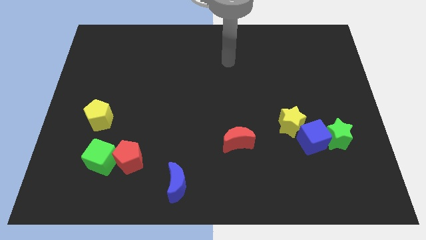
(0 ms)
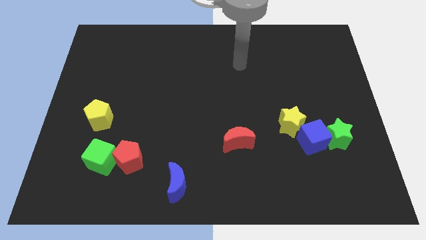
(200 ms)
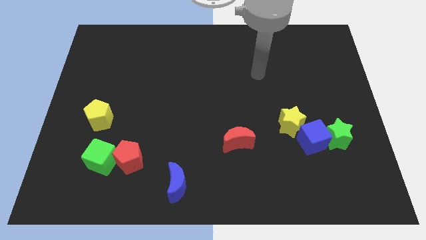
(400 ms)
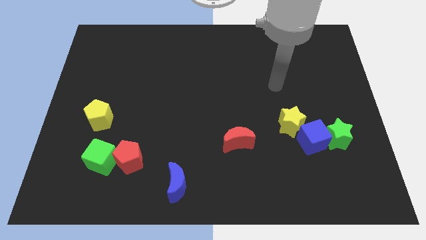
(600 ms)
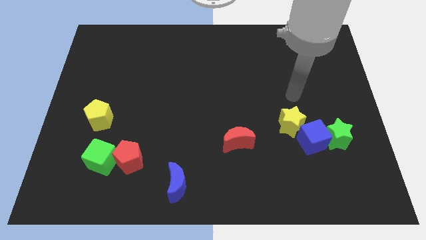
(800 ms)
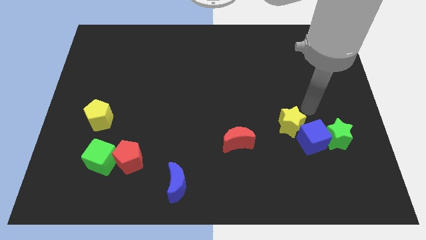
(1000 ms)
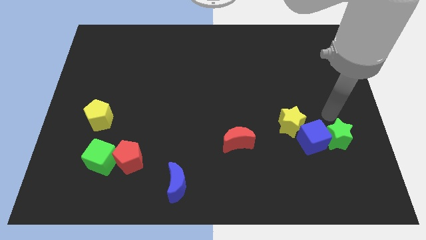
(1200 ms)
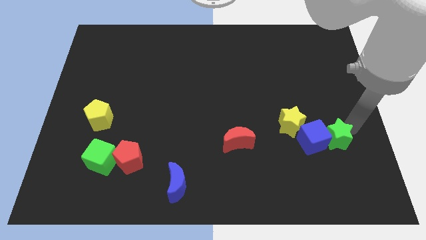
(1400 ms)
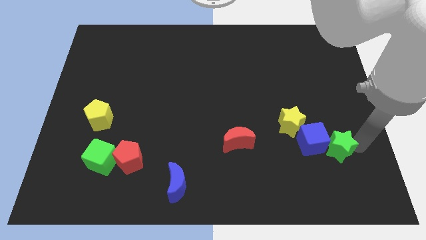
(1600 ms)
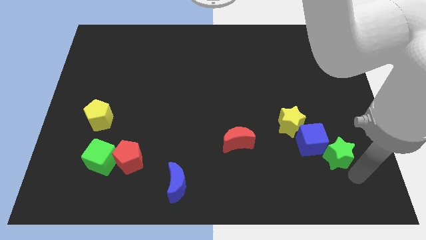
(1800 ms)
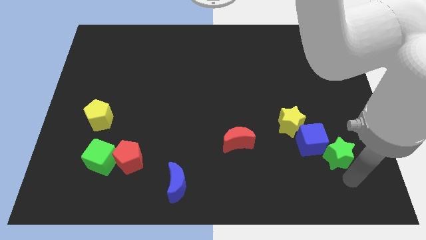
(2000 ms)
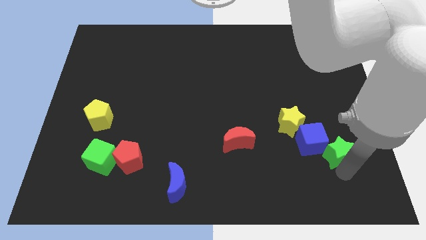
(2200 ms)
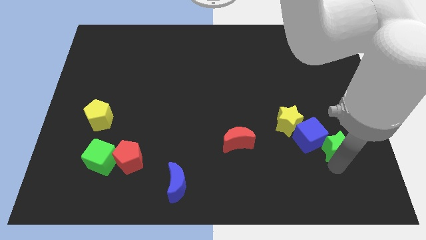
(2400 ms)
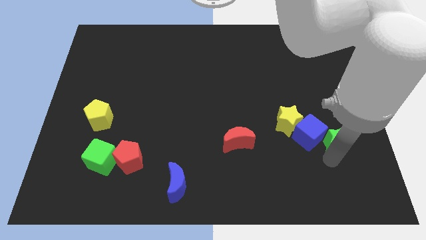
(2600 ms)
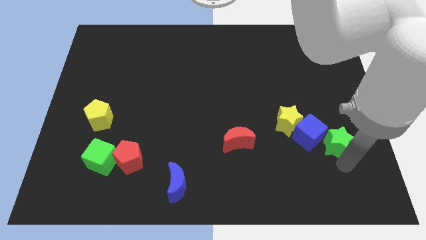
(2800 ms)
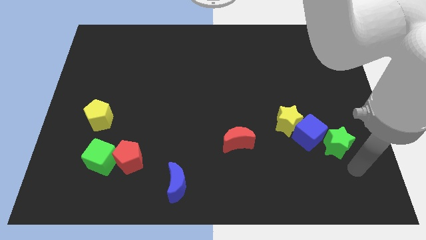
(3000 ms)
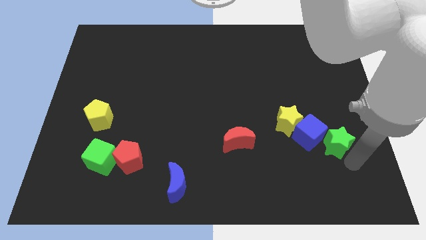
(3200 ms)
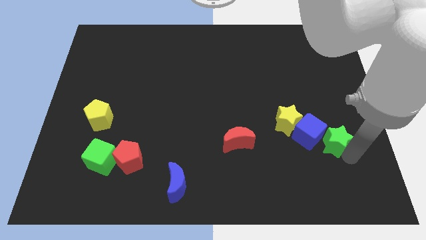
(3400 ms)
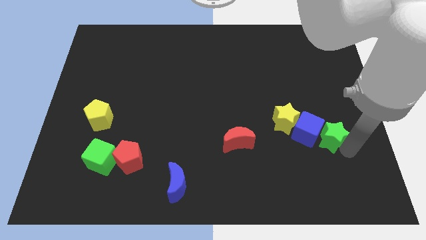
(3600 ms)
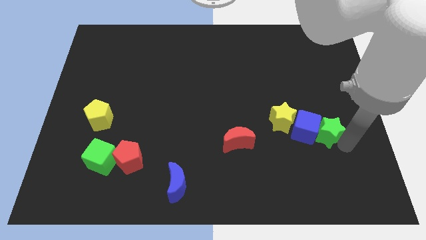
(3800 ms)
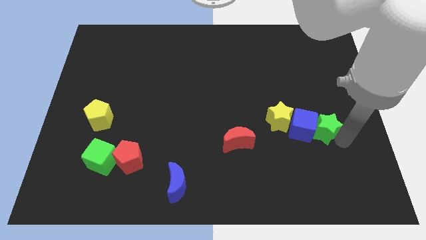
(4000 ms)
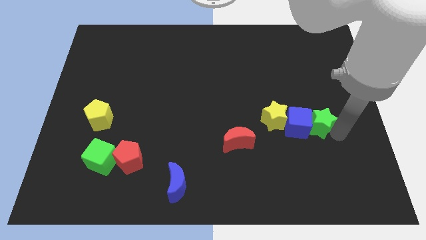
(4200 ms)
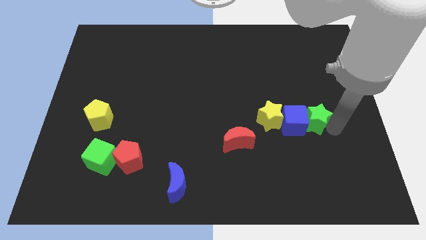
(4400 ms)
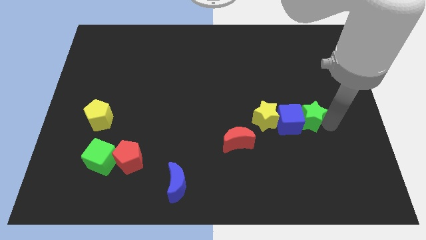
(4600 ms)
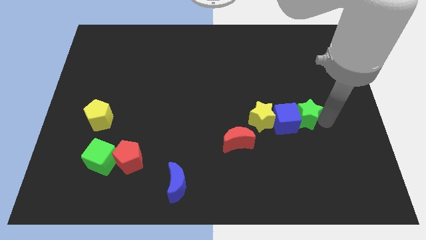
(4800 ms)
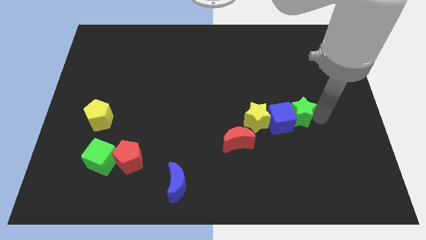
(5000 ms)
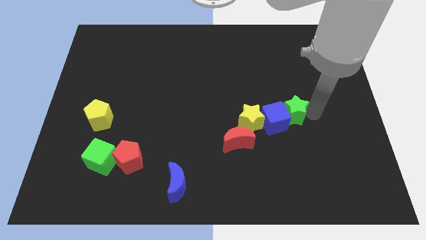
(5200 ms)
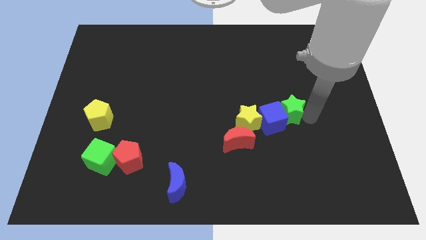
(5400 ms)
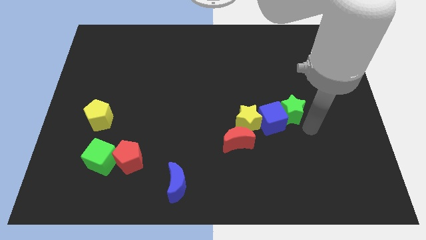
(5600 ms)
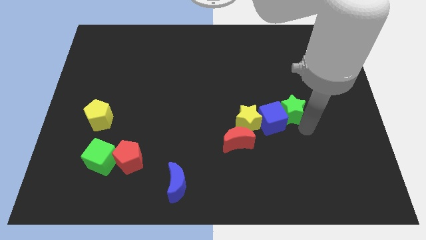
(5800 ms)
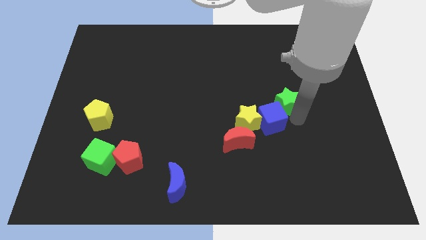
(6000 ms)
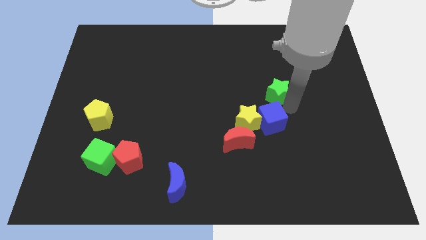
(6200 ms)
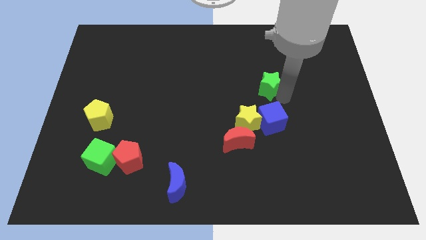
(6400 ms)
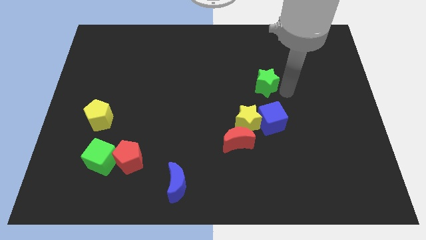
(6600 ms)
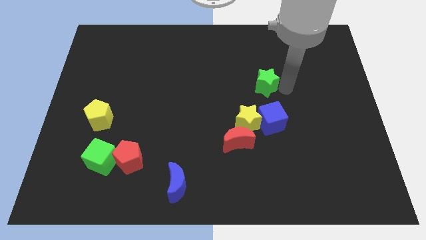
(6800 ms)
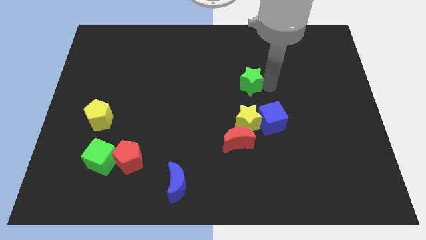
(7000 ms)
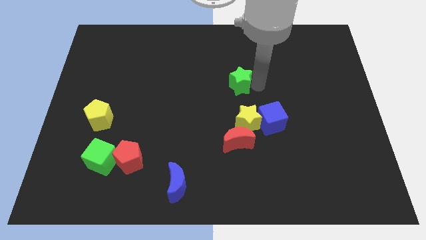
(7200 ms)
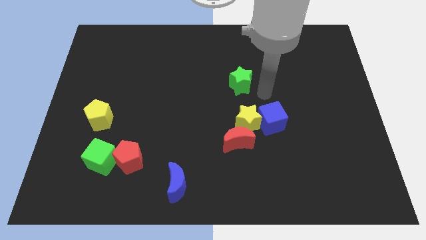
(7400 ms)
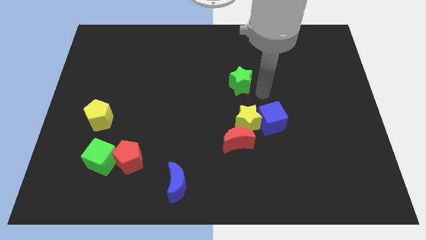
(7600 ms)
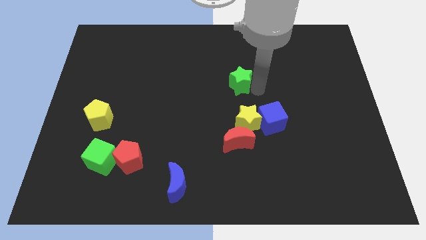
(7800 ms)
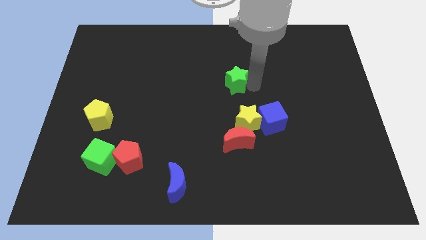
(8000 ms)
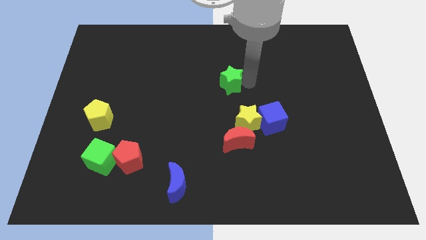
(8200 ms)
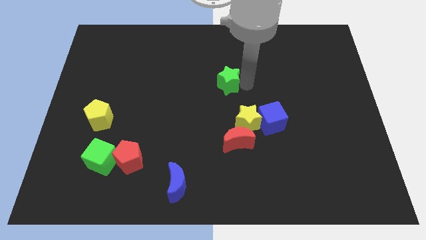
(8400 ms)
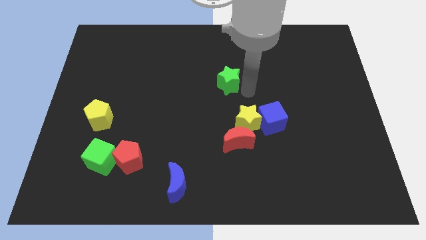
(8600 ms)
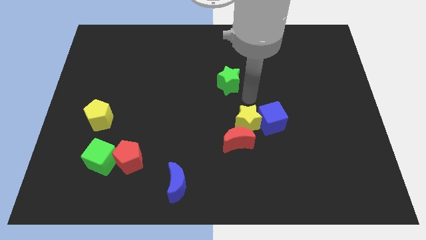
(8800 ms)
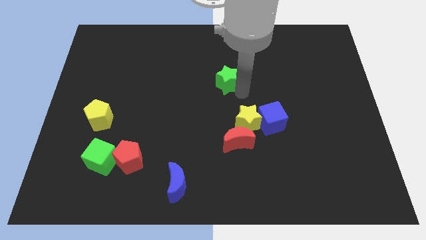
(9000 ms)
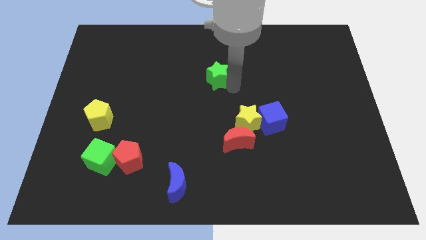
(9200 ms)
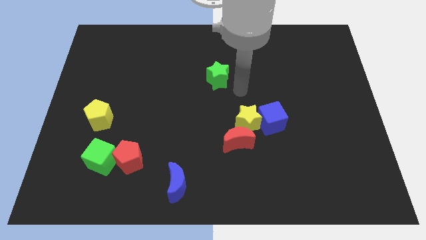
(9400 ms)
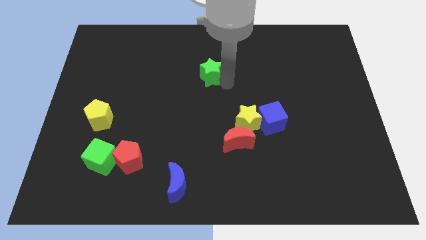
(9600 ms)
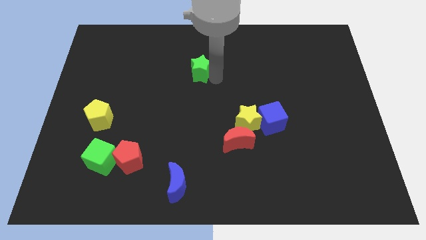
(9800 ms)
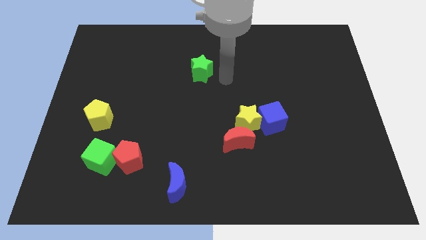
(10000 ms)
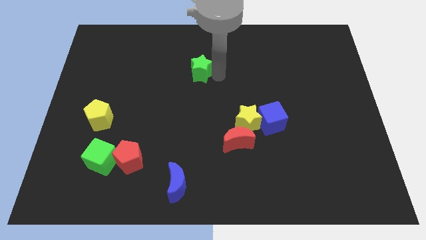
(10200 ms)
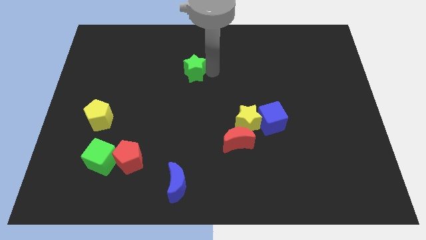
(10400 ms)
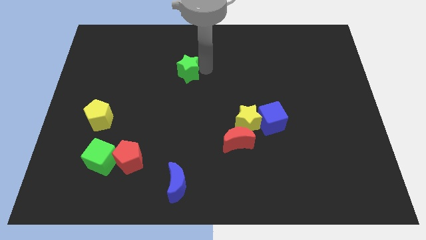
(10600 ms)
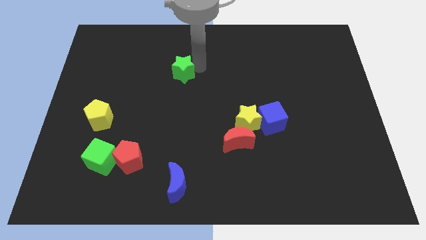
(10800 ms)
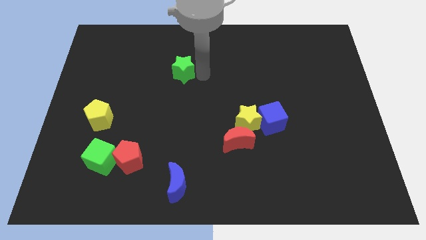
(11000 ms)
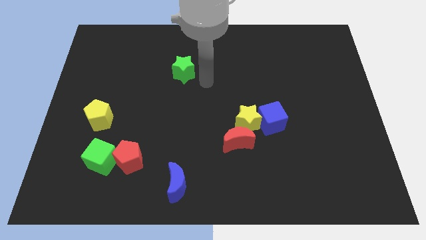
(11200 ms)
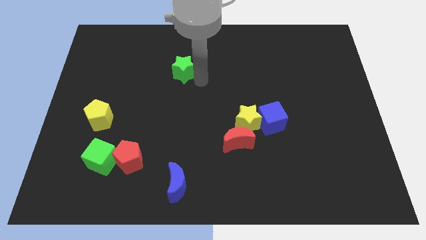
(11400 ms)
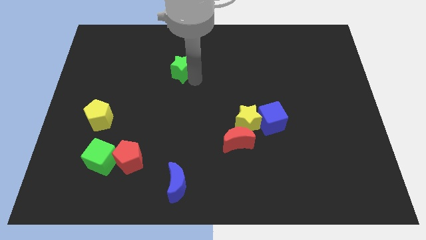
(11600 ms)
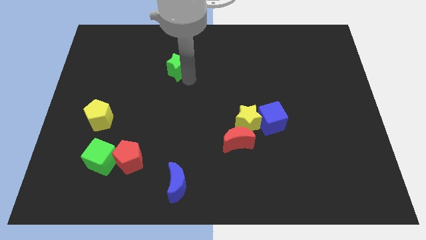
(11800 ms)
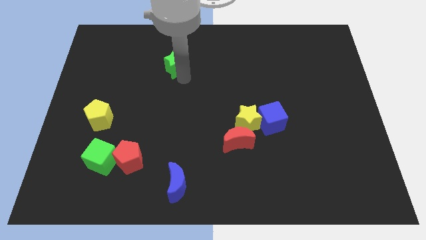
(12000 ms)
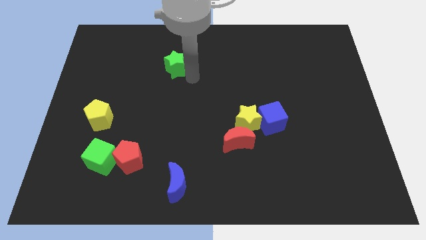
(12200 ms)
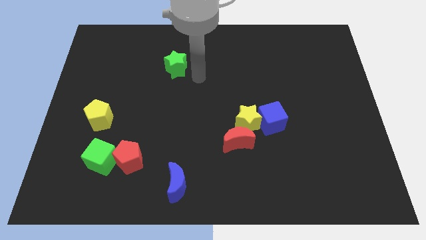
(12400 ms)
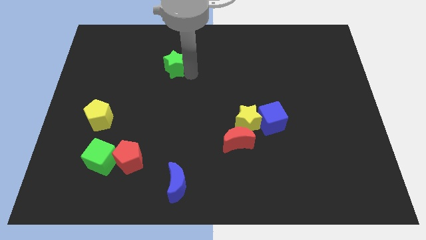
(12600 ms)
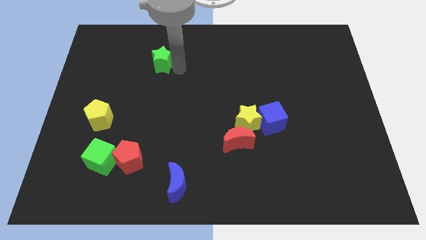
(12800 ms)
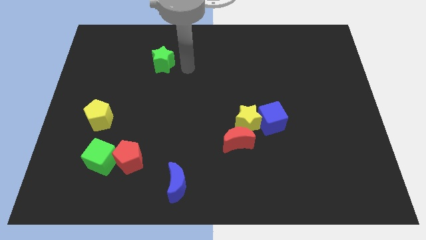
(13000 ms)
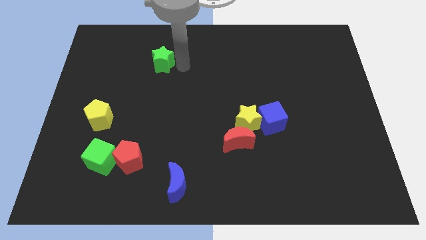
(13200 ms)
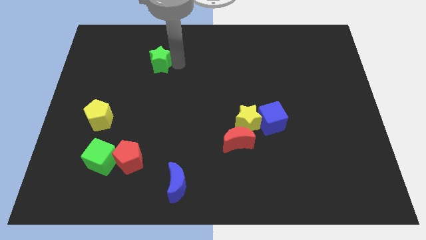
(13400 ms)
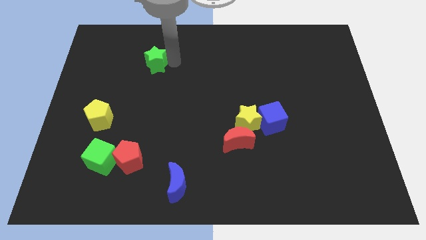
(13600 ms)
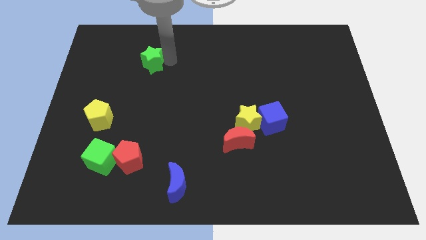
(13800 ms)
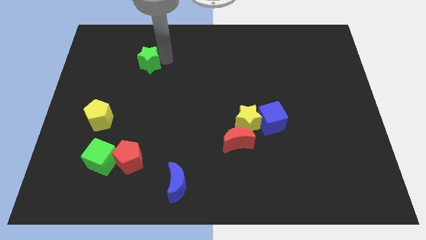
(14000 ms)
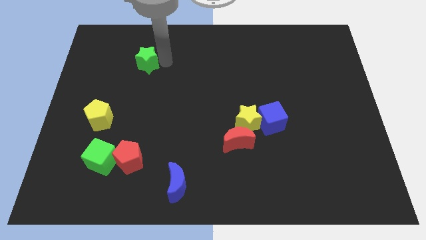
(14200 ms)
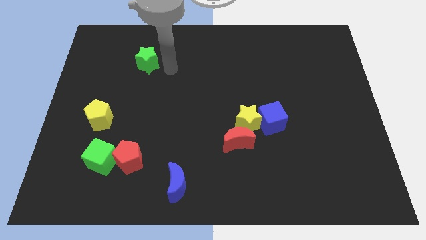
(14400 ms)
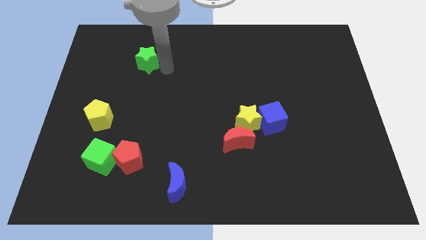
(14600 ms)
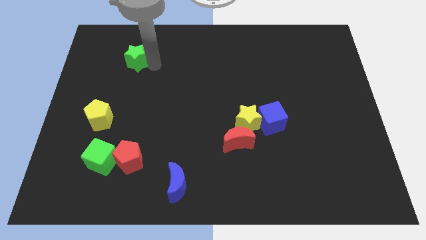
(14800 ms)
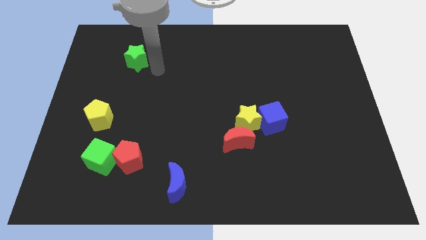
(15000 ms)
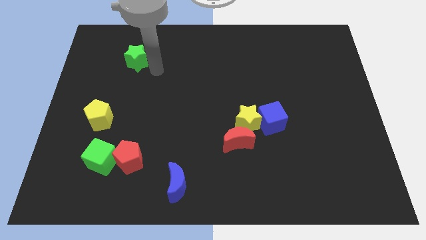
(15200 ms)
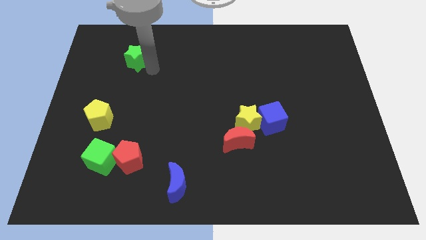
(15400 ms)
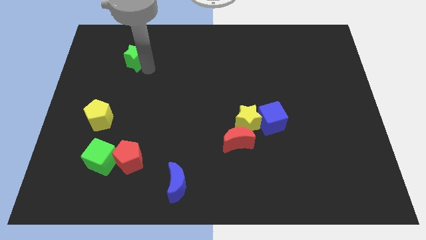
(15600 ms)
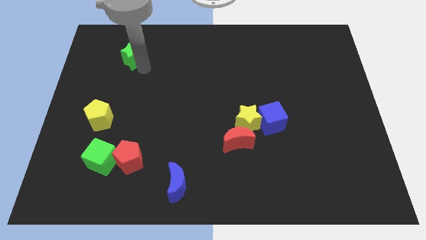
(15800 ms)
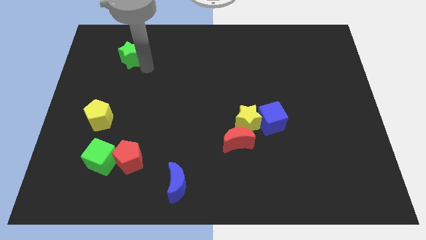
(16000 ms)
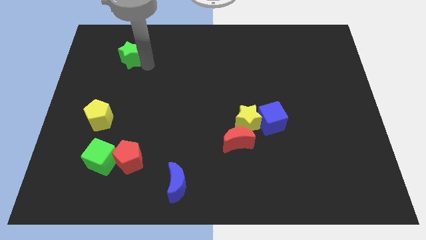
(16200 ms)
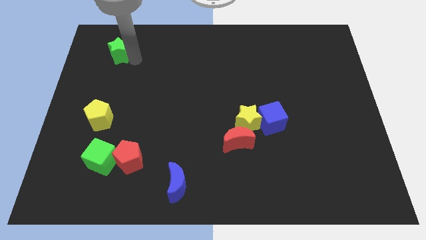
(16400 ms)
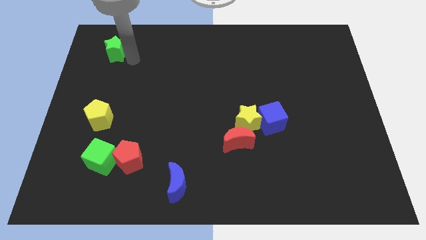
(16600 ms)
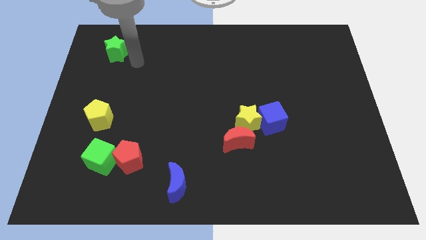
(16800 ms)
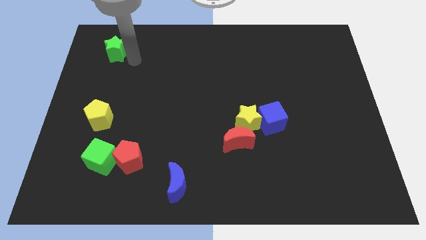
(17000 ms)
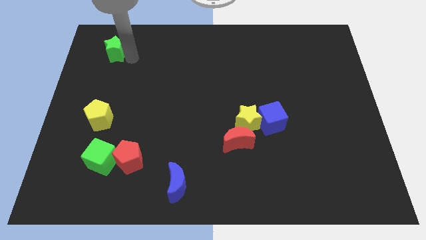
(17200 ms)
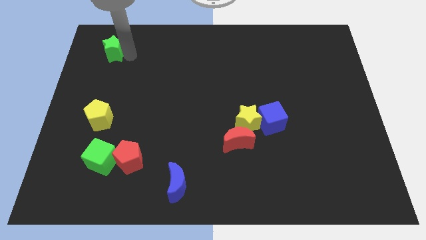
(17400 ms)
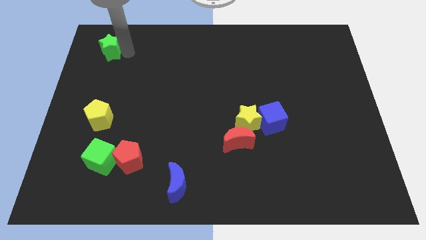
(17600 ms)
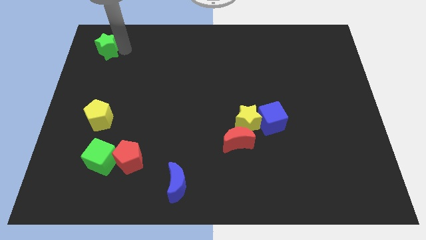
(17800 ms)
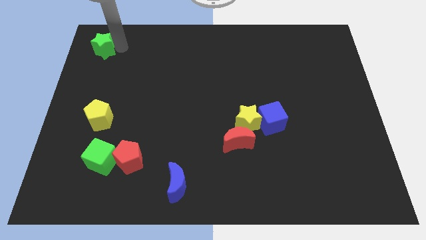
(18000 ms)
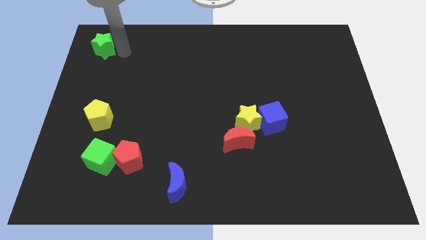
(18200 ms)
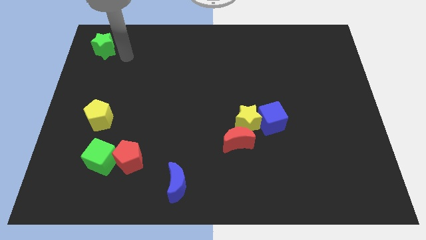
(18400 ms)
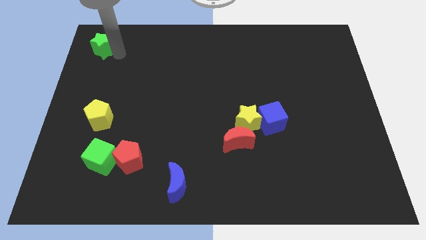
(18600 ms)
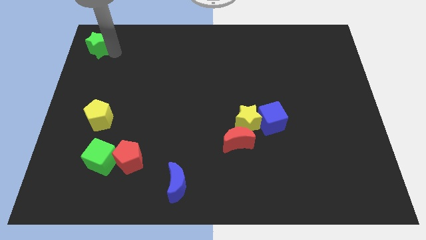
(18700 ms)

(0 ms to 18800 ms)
put the green star to the top left
